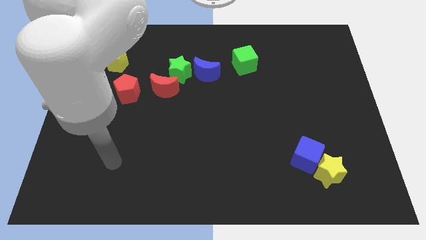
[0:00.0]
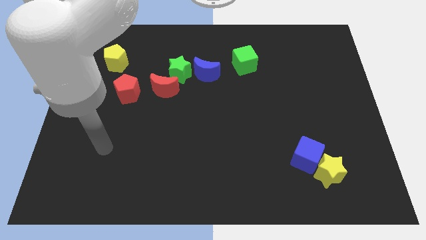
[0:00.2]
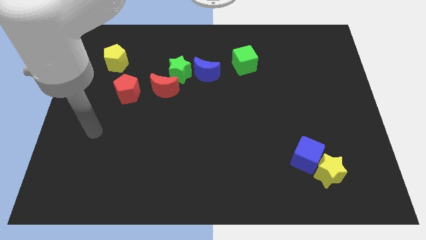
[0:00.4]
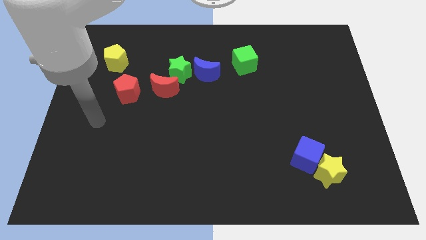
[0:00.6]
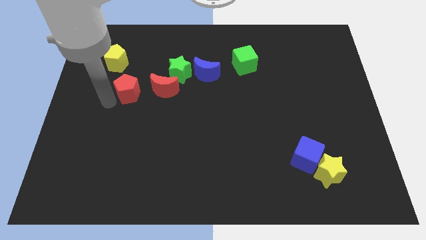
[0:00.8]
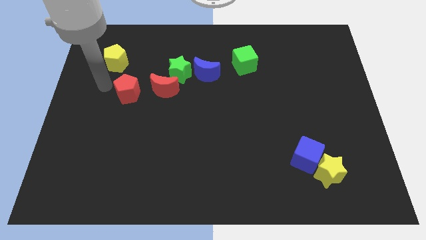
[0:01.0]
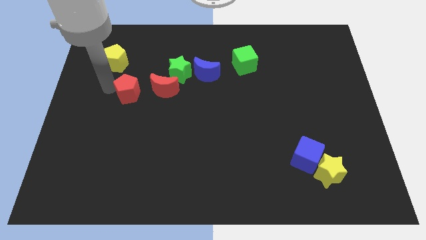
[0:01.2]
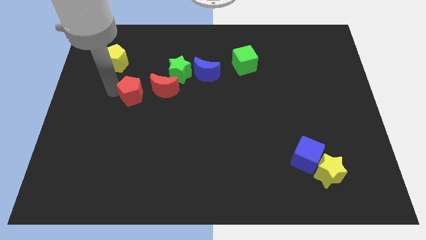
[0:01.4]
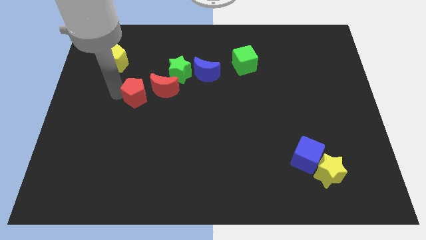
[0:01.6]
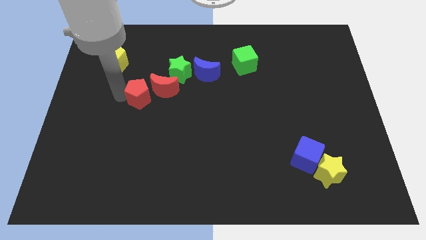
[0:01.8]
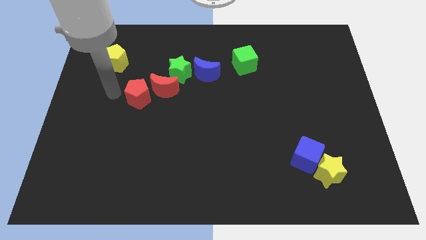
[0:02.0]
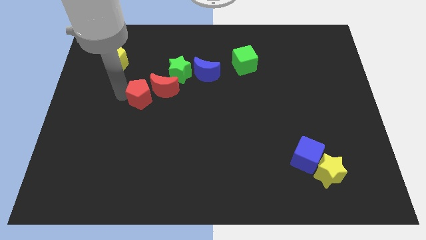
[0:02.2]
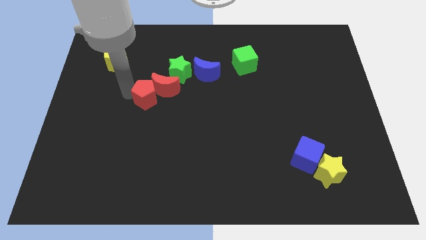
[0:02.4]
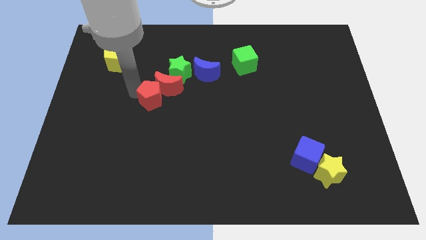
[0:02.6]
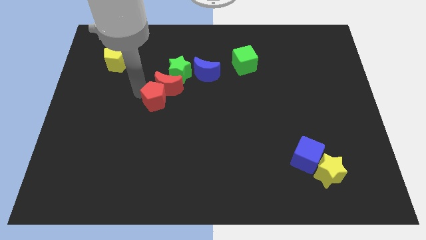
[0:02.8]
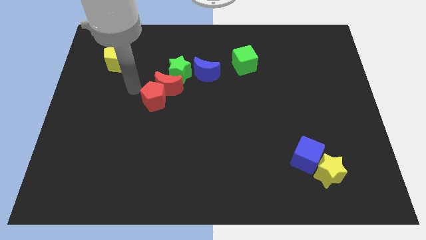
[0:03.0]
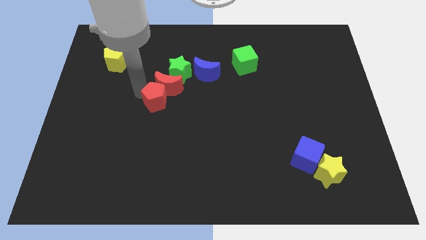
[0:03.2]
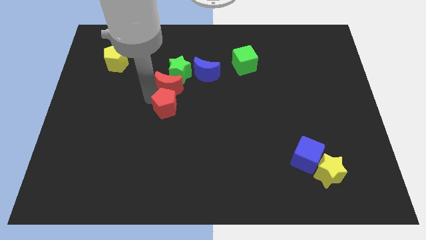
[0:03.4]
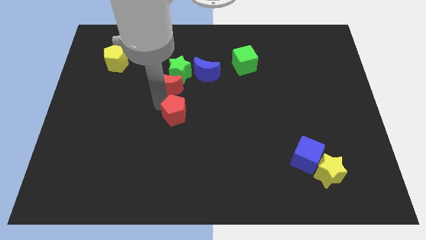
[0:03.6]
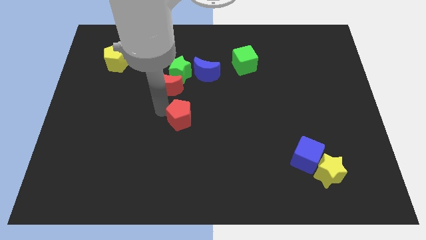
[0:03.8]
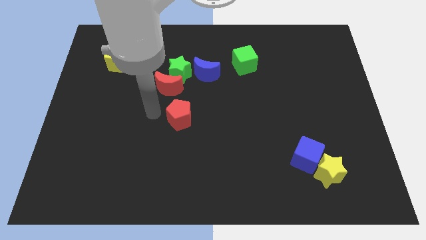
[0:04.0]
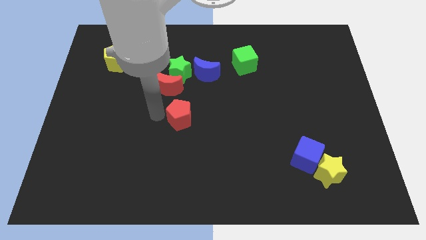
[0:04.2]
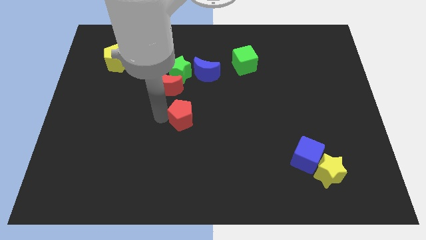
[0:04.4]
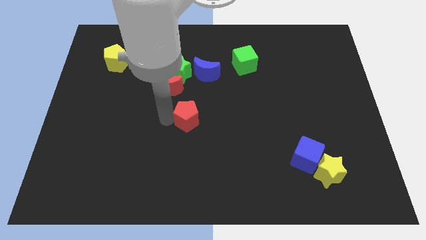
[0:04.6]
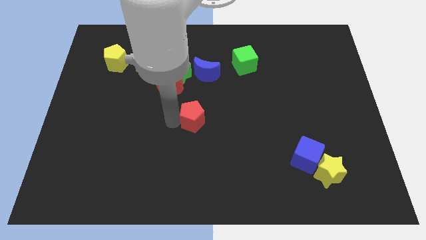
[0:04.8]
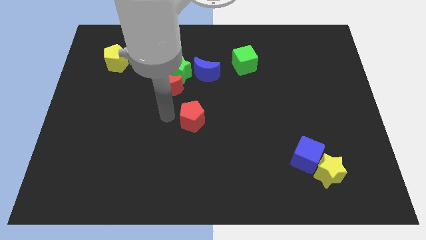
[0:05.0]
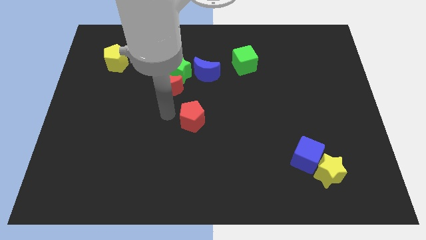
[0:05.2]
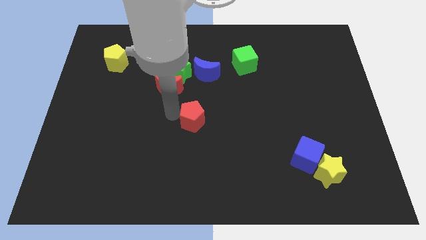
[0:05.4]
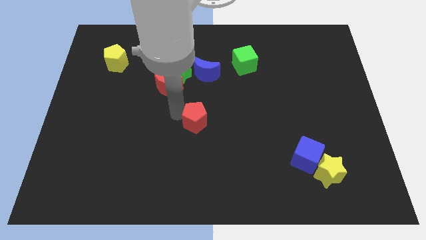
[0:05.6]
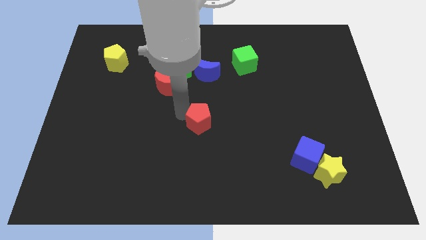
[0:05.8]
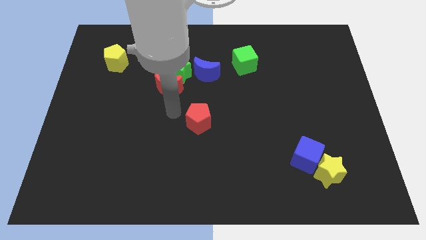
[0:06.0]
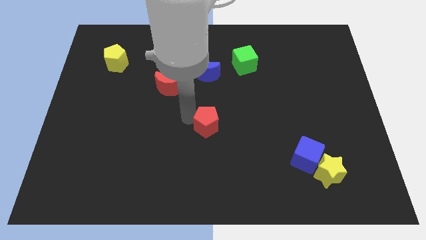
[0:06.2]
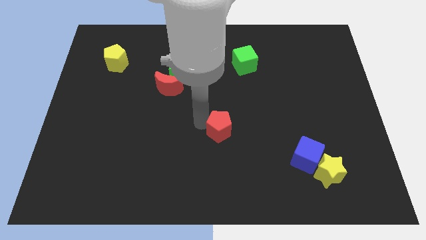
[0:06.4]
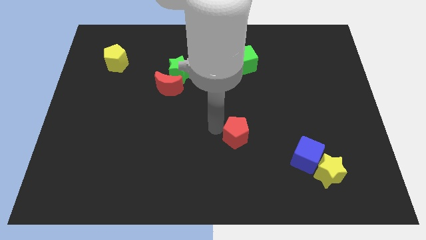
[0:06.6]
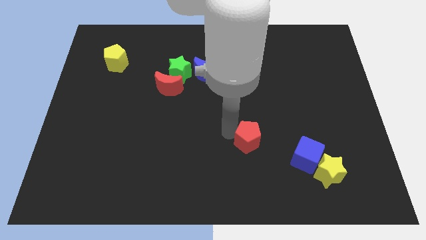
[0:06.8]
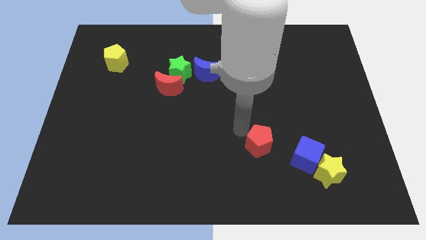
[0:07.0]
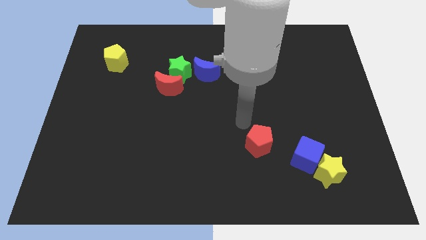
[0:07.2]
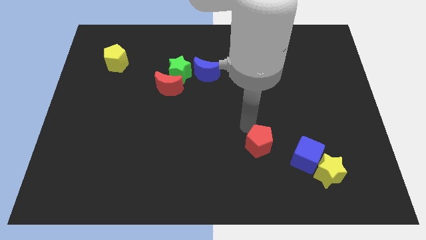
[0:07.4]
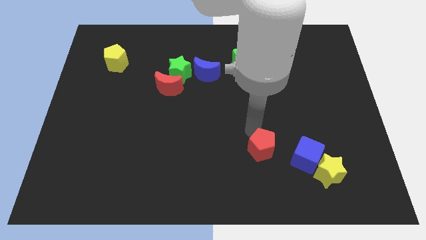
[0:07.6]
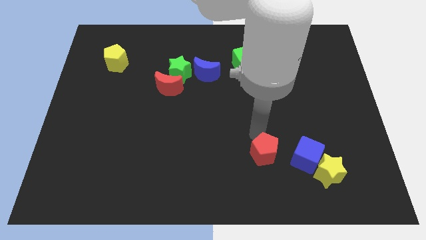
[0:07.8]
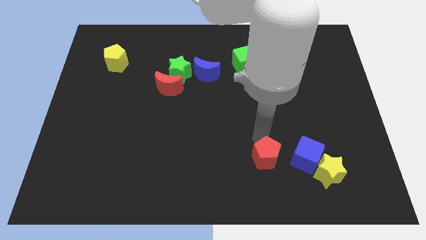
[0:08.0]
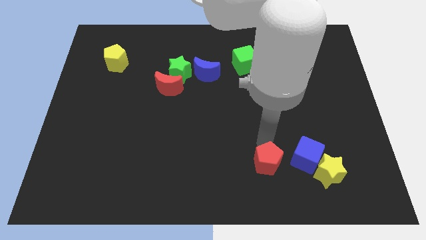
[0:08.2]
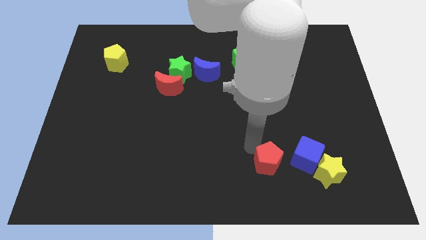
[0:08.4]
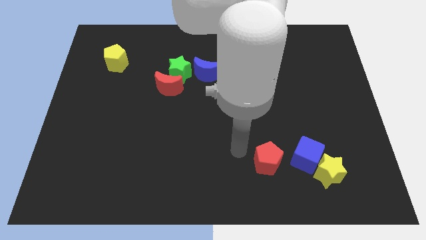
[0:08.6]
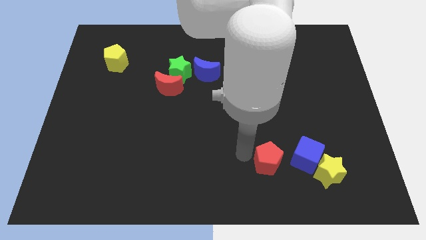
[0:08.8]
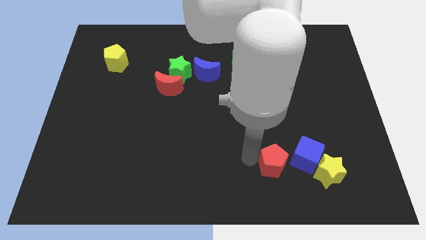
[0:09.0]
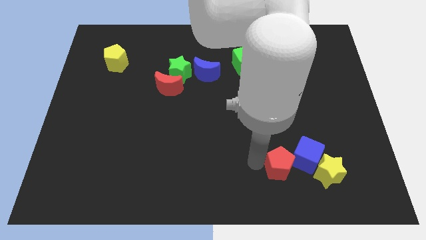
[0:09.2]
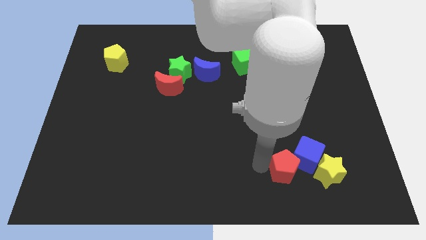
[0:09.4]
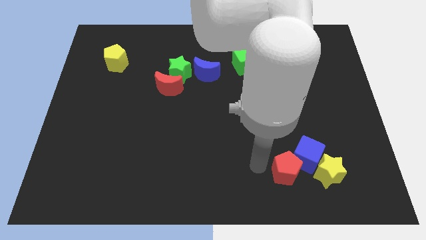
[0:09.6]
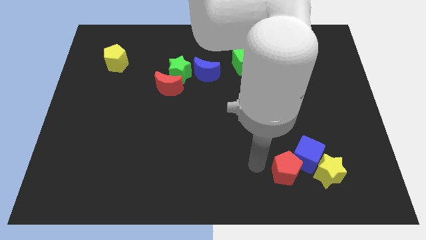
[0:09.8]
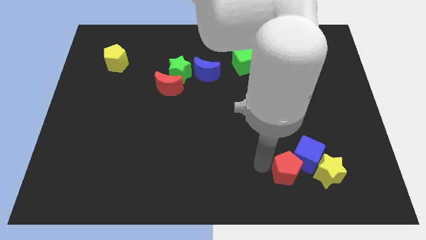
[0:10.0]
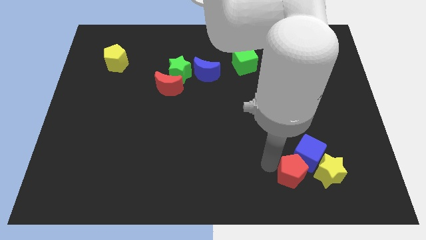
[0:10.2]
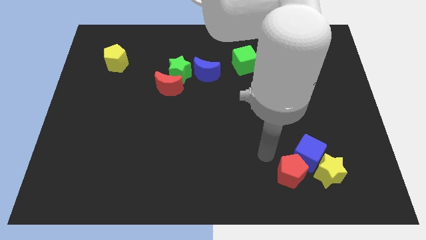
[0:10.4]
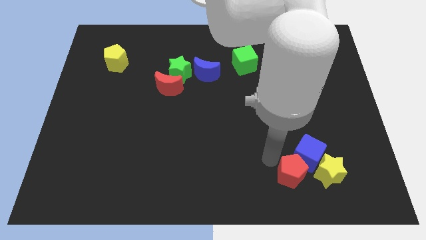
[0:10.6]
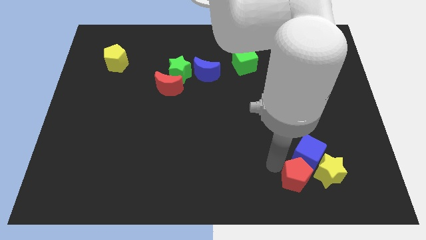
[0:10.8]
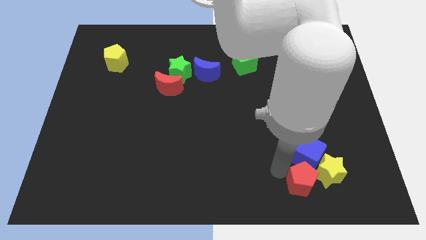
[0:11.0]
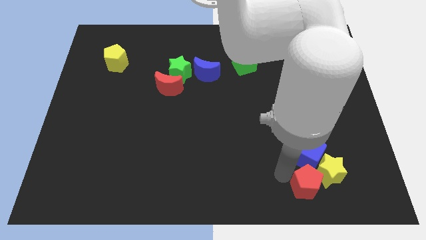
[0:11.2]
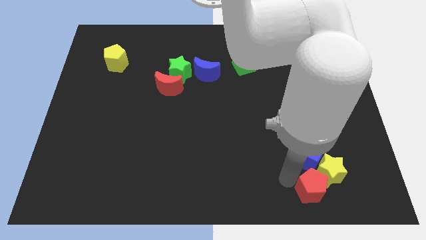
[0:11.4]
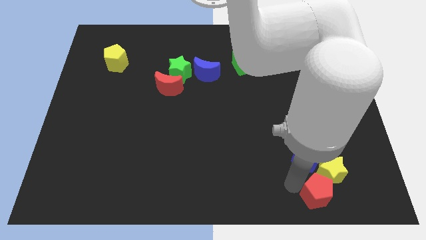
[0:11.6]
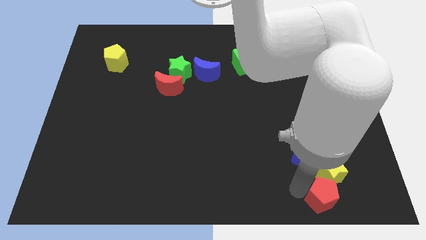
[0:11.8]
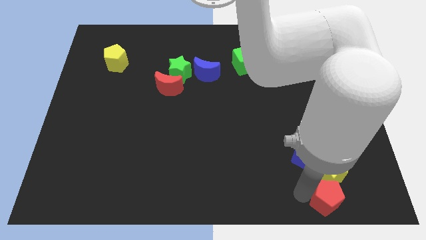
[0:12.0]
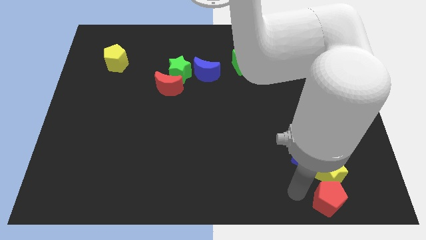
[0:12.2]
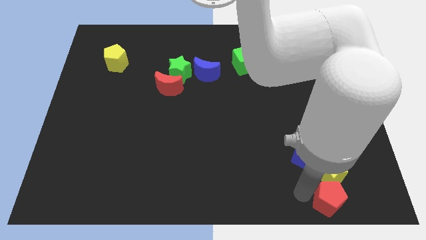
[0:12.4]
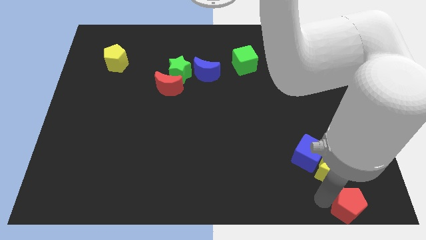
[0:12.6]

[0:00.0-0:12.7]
slide the red pentagon to the bottom right of the board

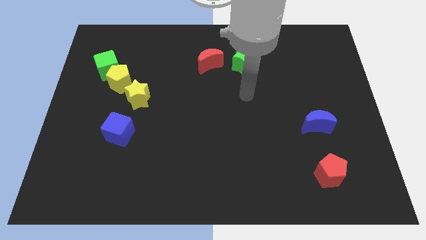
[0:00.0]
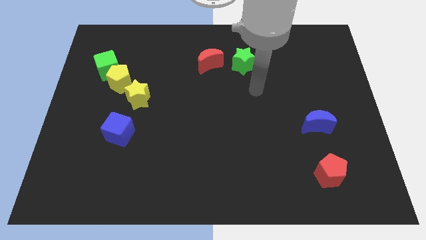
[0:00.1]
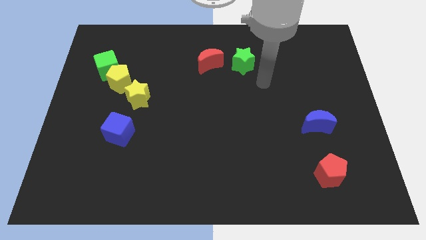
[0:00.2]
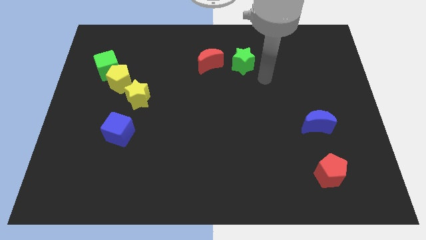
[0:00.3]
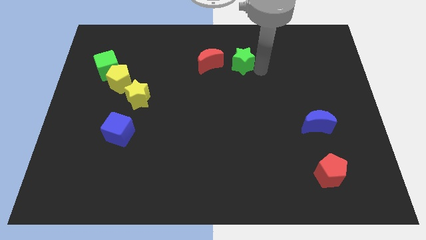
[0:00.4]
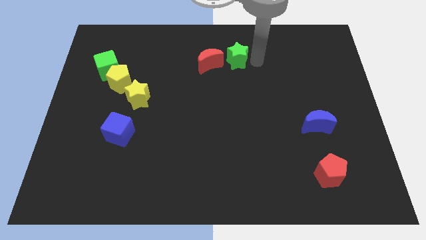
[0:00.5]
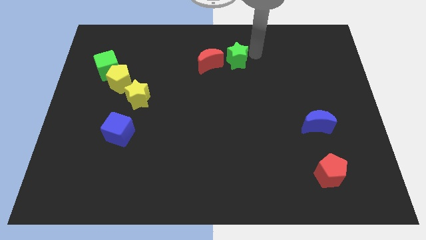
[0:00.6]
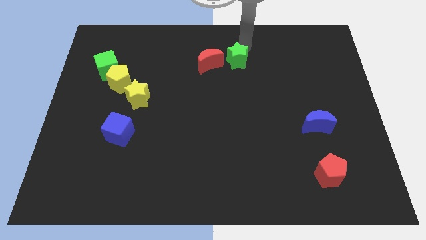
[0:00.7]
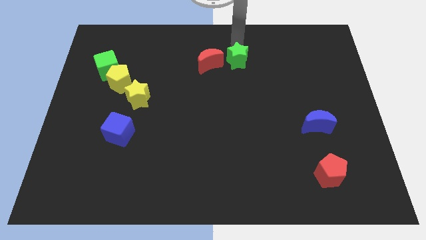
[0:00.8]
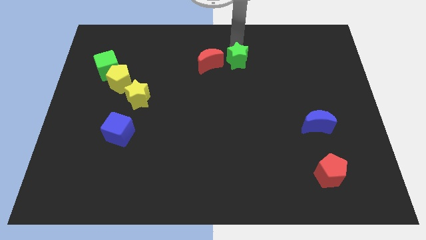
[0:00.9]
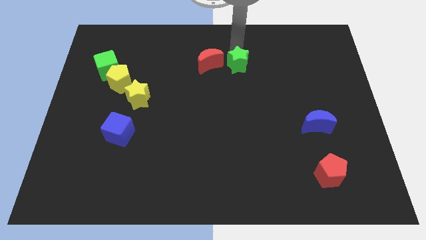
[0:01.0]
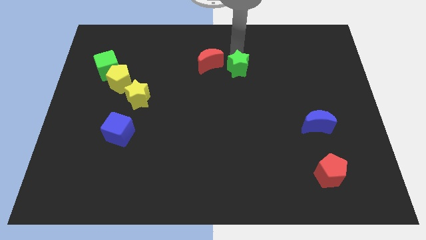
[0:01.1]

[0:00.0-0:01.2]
slide the green star to the center
